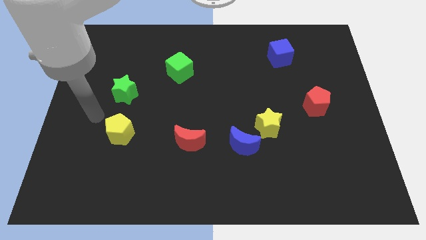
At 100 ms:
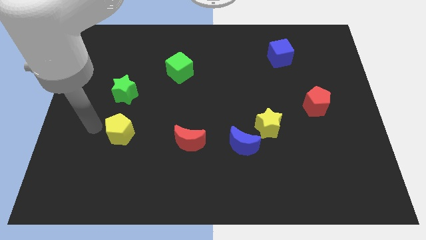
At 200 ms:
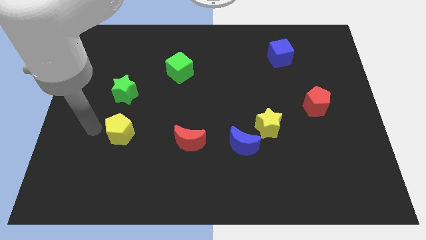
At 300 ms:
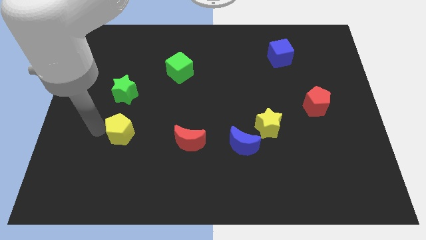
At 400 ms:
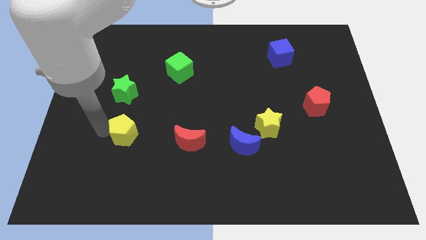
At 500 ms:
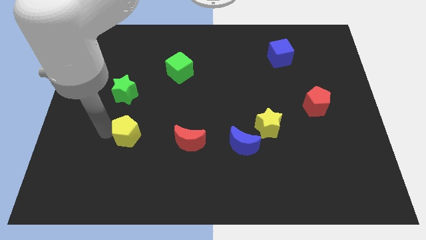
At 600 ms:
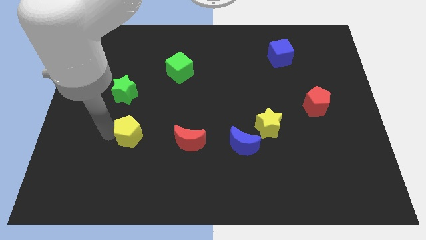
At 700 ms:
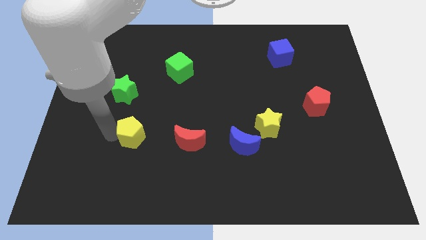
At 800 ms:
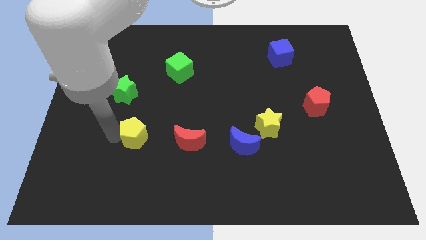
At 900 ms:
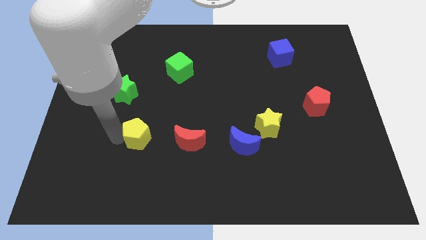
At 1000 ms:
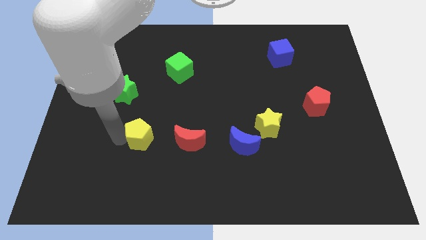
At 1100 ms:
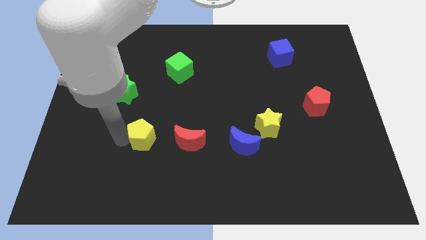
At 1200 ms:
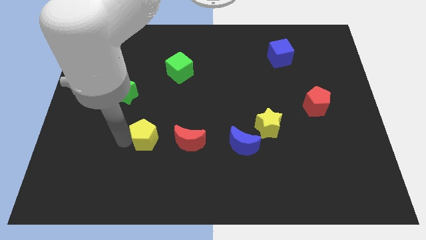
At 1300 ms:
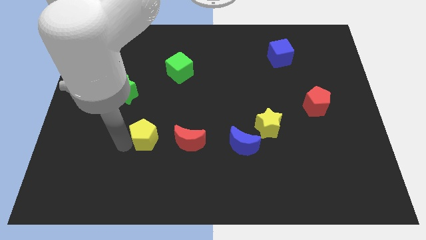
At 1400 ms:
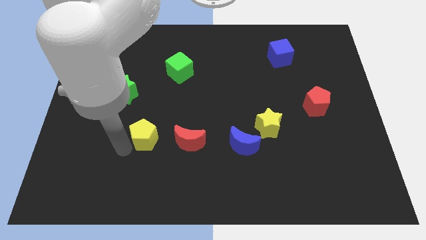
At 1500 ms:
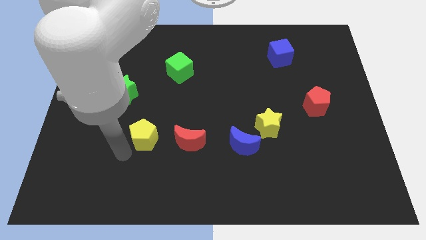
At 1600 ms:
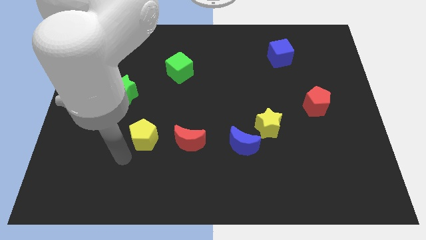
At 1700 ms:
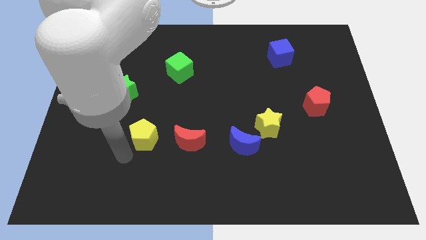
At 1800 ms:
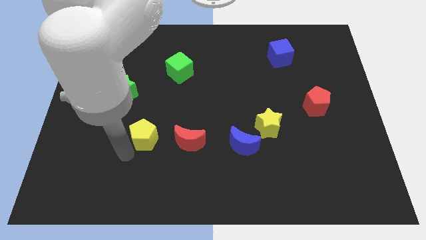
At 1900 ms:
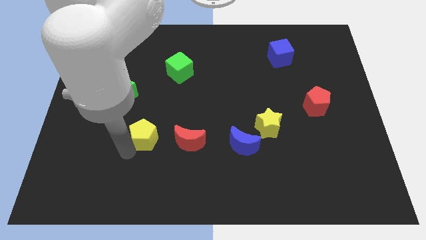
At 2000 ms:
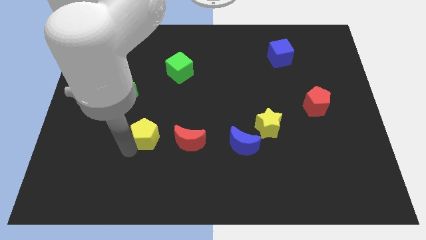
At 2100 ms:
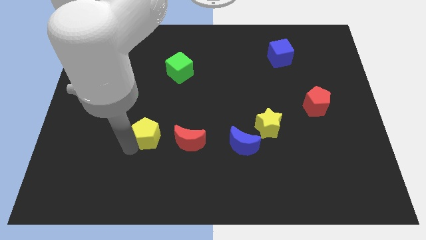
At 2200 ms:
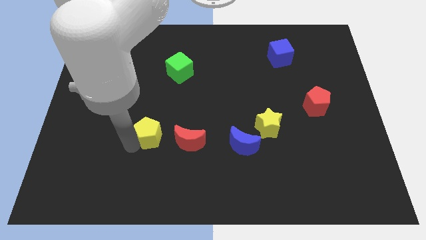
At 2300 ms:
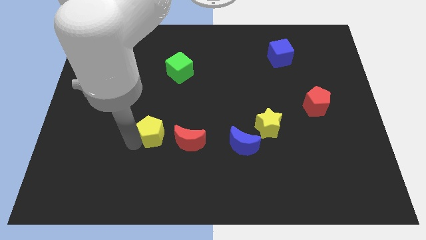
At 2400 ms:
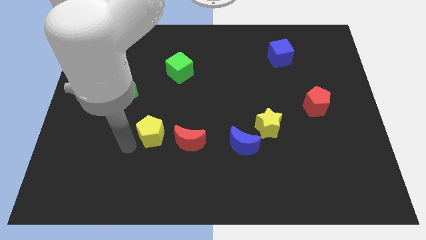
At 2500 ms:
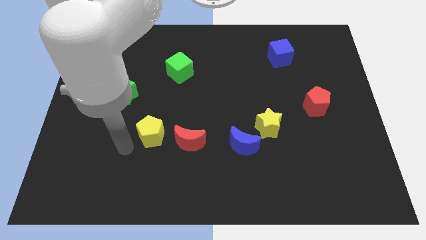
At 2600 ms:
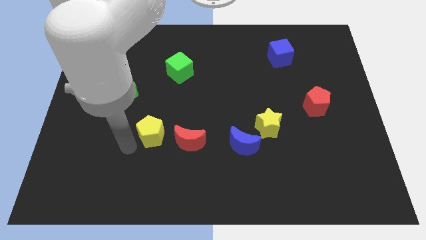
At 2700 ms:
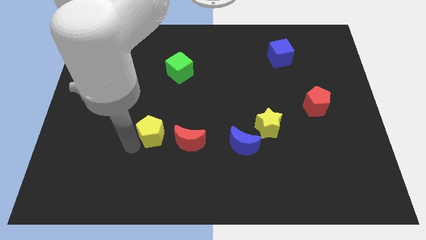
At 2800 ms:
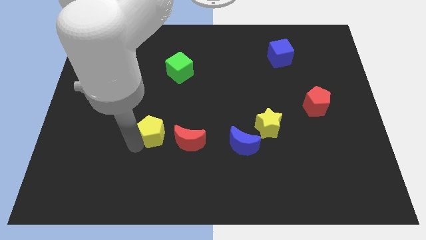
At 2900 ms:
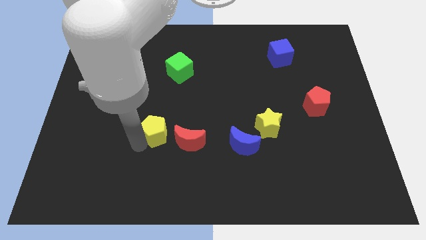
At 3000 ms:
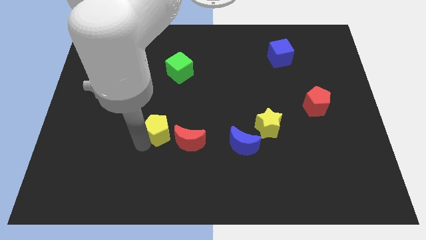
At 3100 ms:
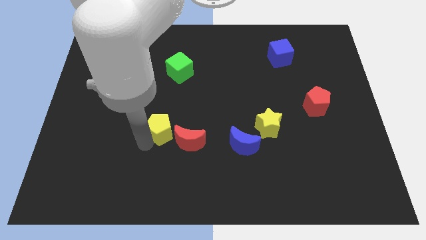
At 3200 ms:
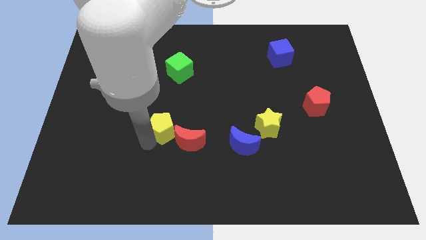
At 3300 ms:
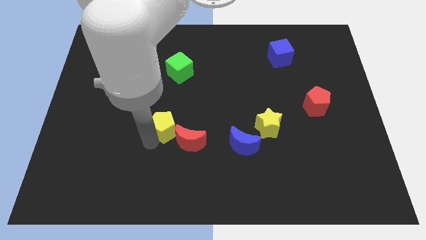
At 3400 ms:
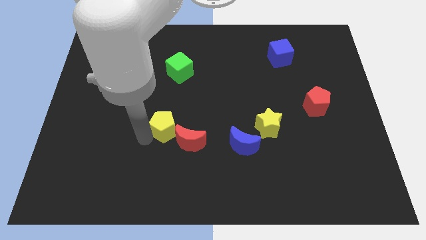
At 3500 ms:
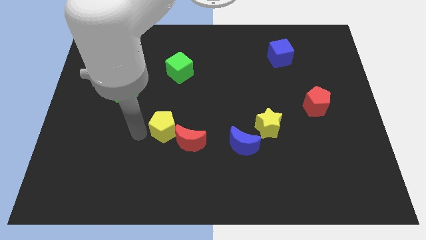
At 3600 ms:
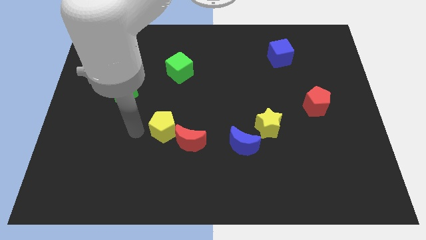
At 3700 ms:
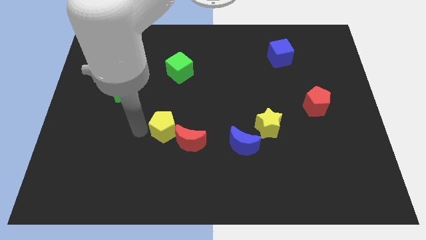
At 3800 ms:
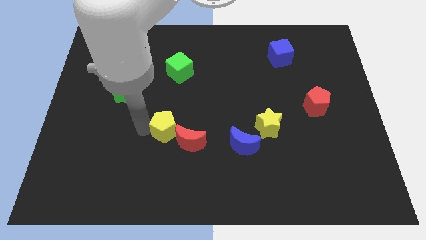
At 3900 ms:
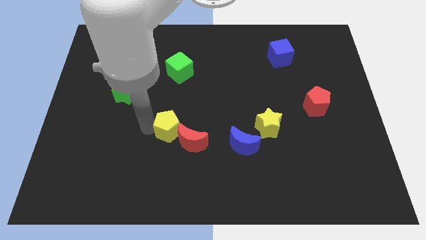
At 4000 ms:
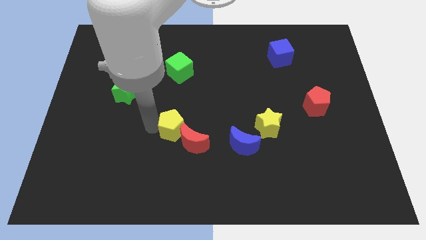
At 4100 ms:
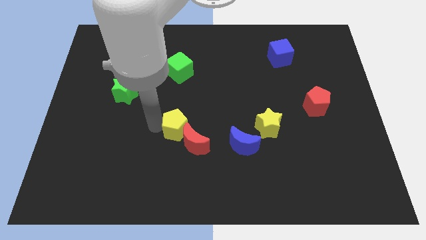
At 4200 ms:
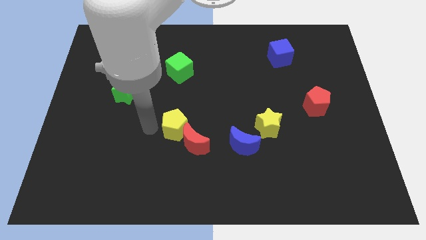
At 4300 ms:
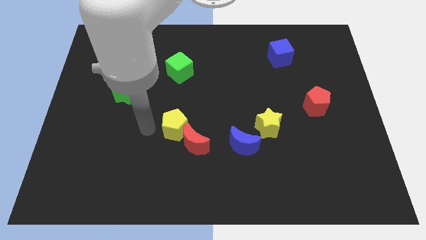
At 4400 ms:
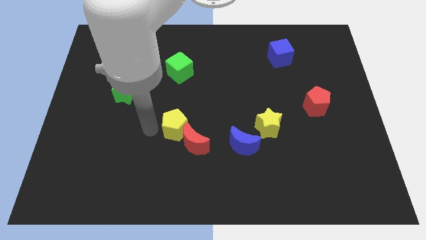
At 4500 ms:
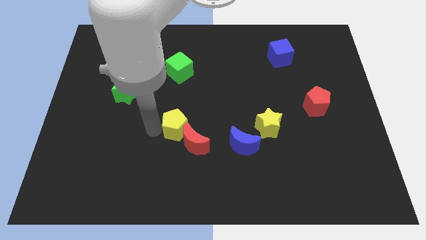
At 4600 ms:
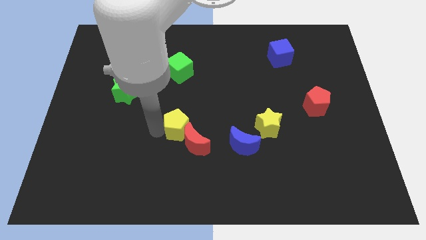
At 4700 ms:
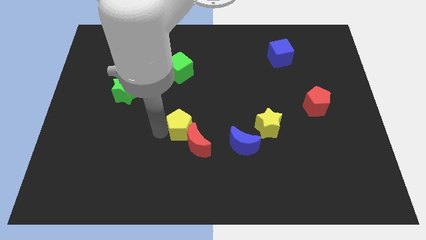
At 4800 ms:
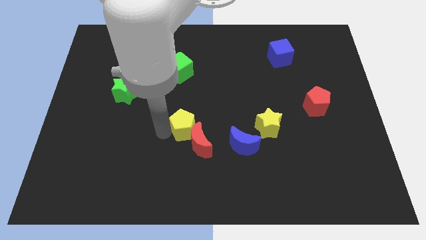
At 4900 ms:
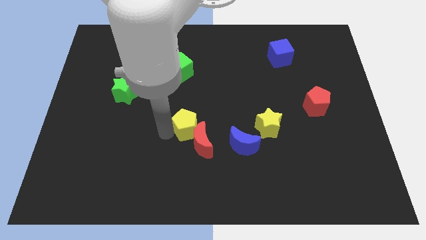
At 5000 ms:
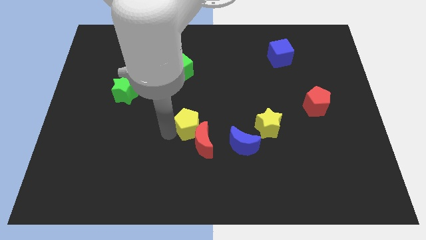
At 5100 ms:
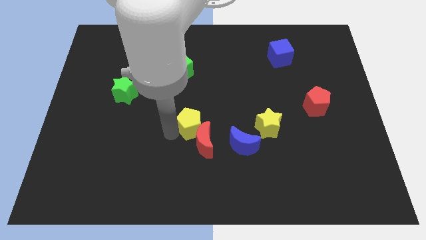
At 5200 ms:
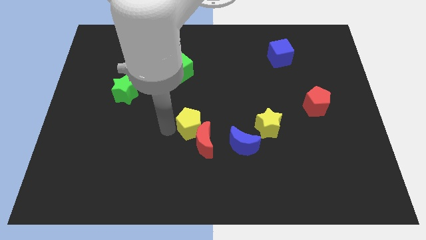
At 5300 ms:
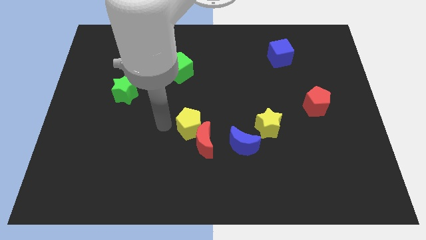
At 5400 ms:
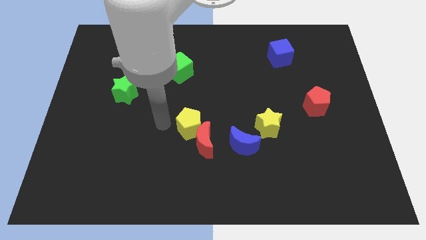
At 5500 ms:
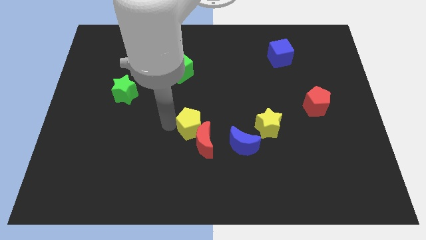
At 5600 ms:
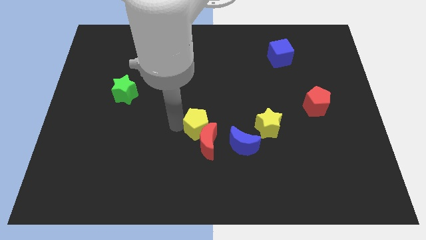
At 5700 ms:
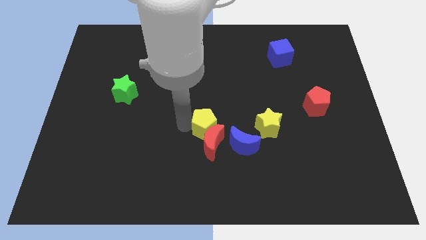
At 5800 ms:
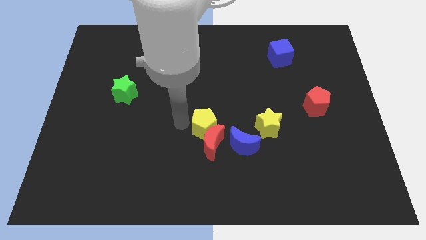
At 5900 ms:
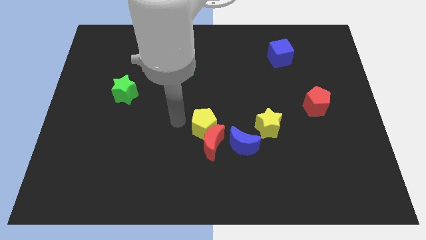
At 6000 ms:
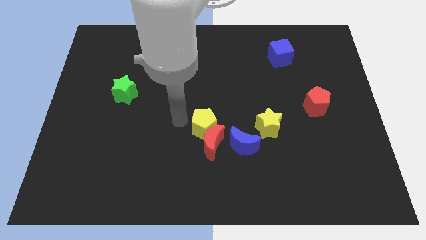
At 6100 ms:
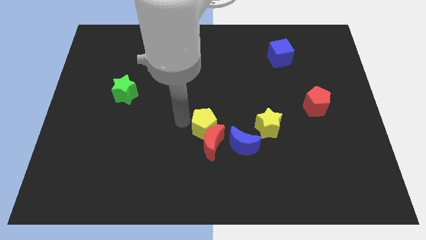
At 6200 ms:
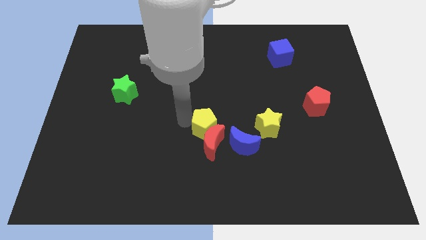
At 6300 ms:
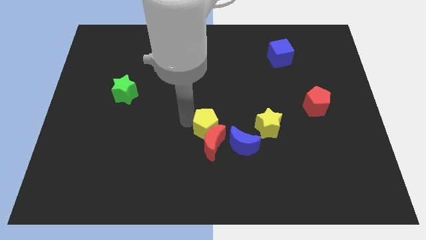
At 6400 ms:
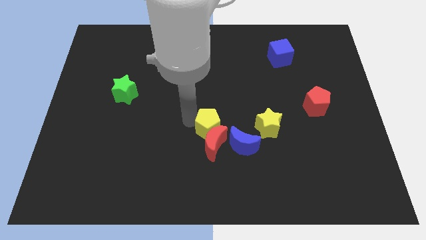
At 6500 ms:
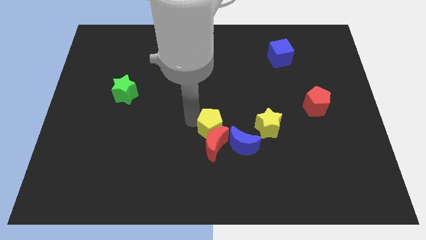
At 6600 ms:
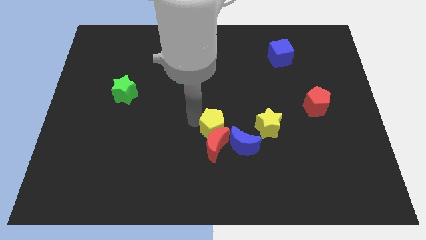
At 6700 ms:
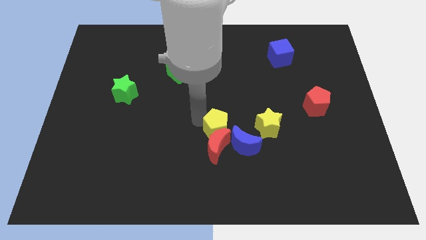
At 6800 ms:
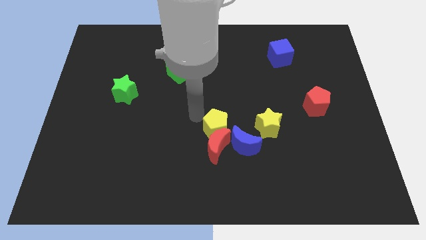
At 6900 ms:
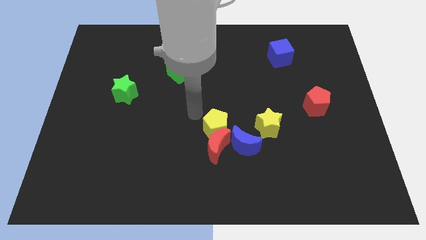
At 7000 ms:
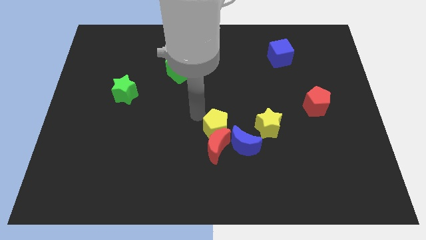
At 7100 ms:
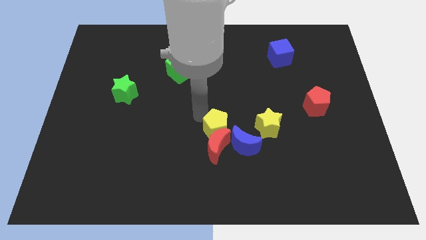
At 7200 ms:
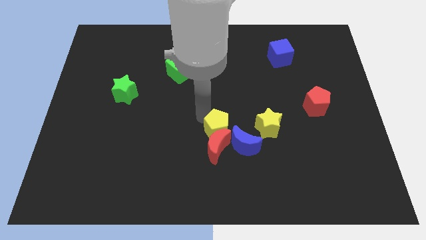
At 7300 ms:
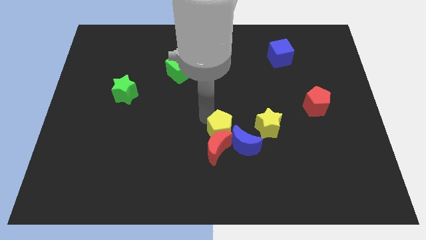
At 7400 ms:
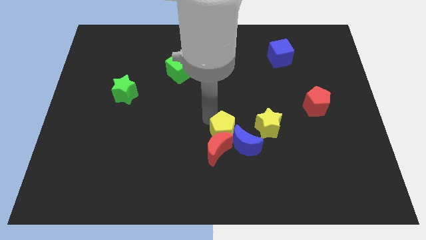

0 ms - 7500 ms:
push the yellow pentagon towards the blue moon
